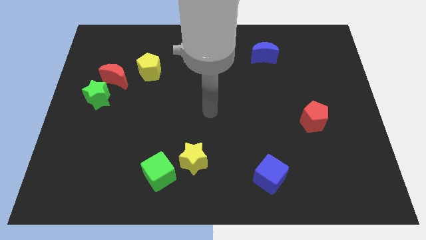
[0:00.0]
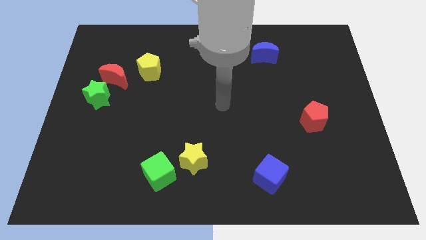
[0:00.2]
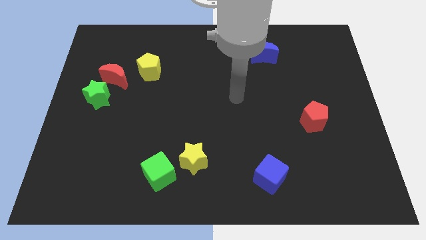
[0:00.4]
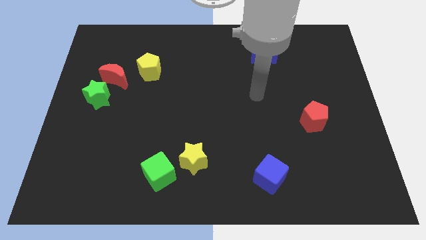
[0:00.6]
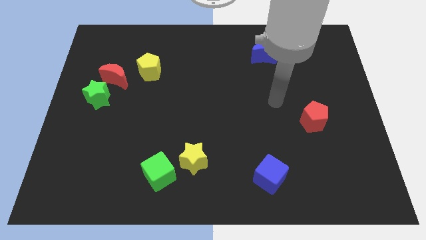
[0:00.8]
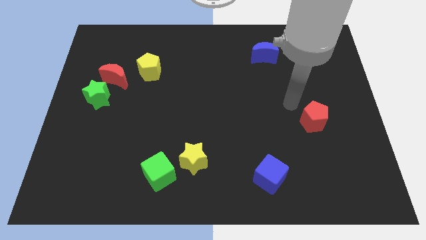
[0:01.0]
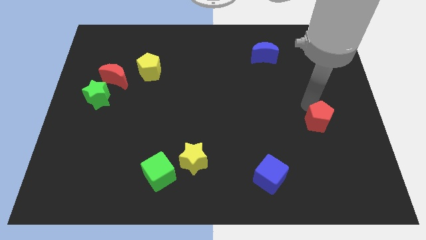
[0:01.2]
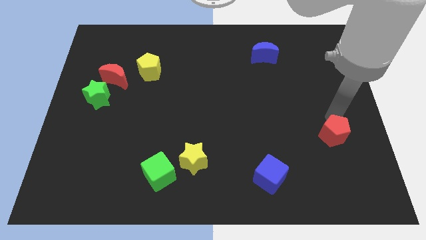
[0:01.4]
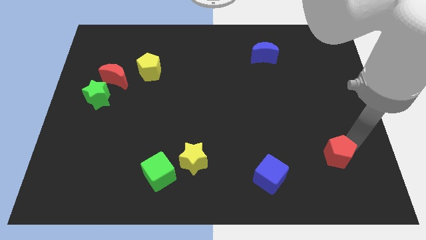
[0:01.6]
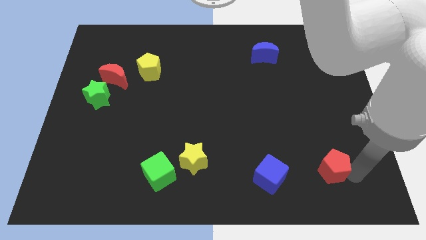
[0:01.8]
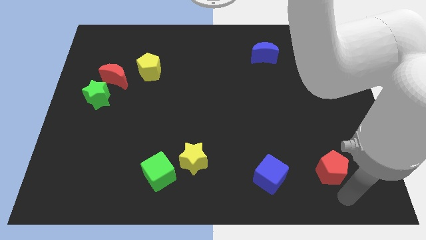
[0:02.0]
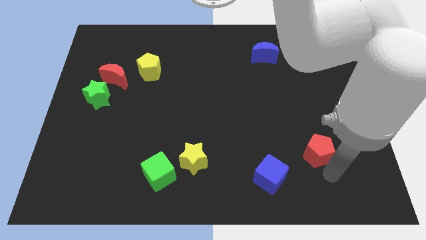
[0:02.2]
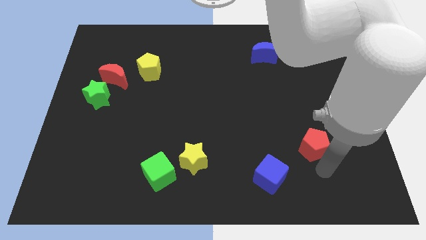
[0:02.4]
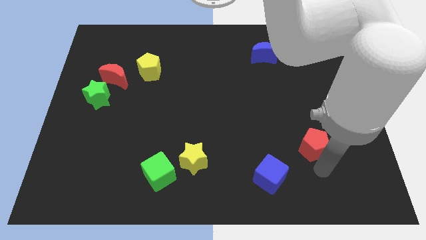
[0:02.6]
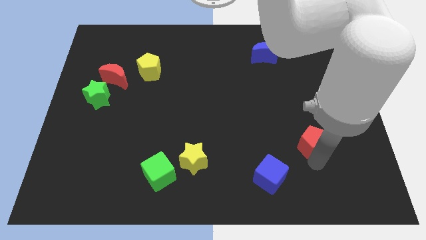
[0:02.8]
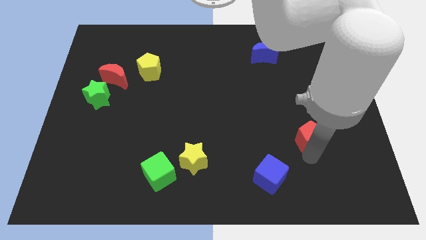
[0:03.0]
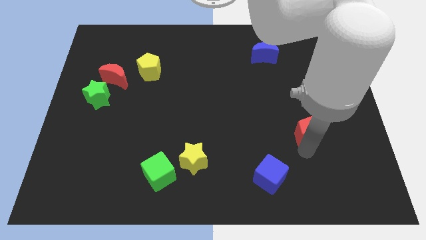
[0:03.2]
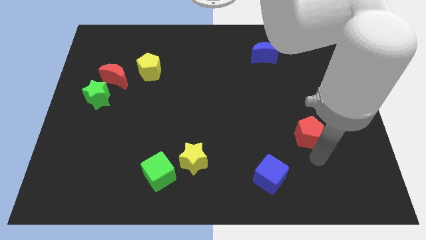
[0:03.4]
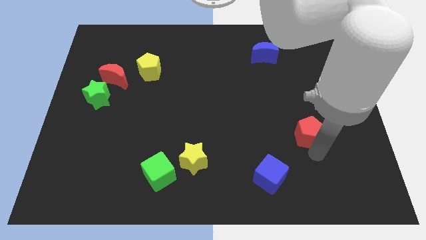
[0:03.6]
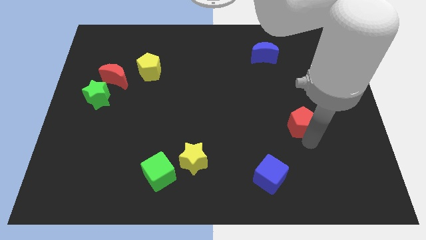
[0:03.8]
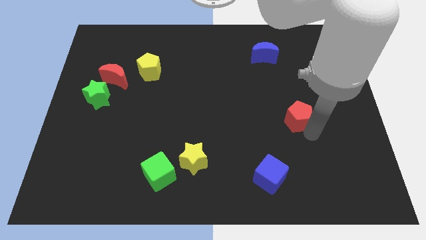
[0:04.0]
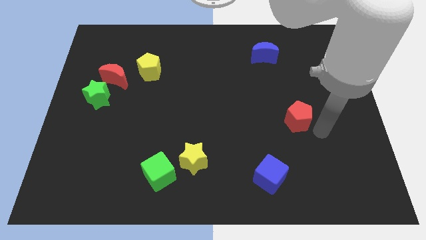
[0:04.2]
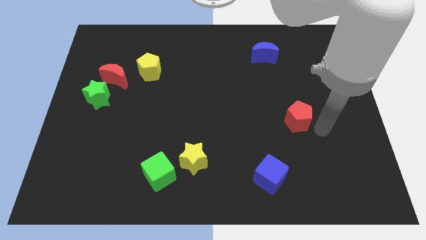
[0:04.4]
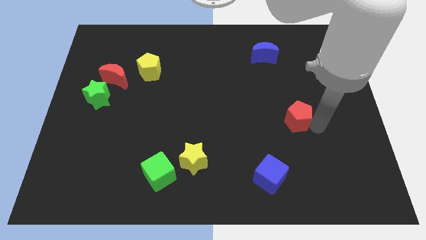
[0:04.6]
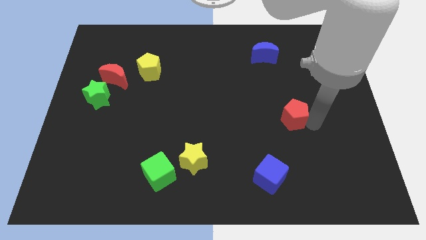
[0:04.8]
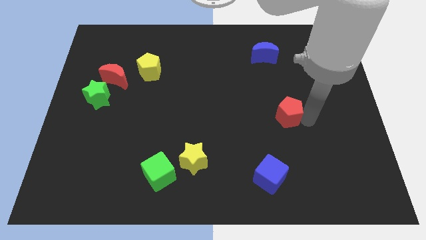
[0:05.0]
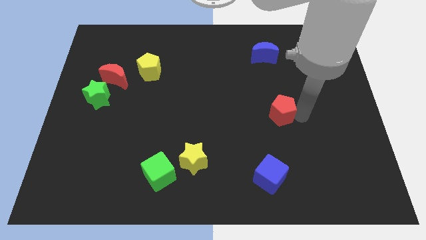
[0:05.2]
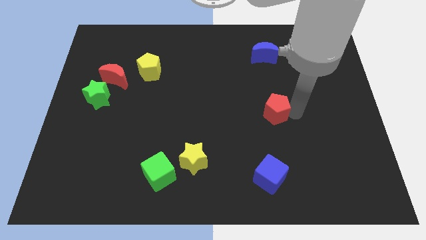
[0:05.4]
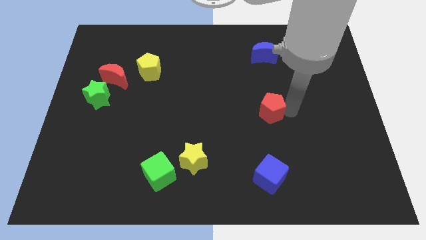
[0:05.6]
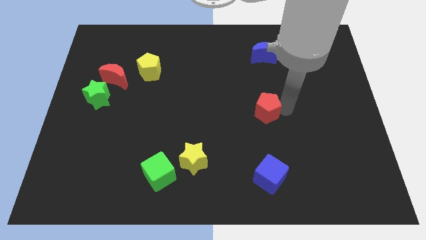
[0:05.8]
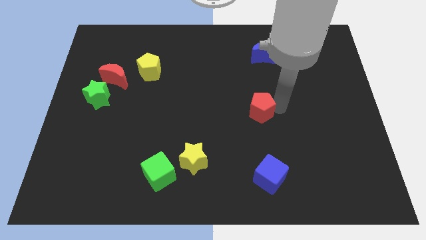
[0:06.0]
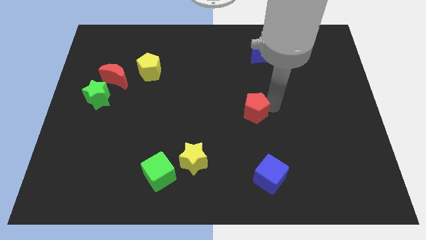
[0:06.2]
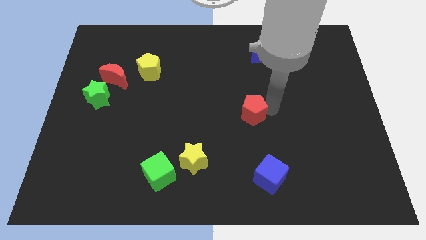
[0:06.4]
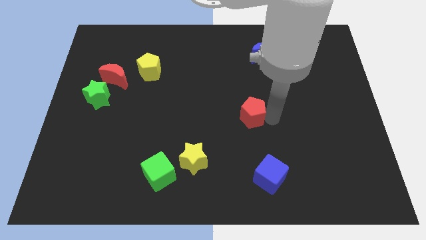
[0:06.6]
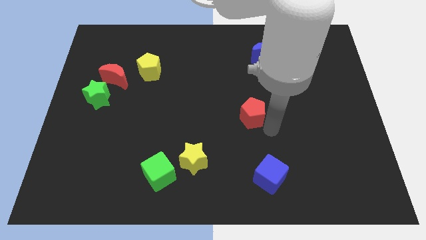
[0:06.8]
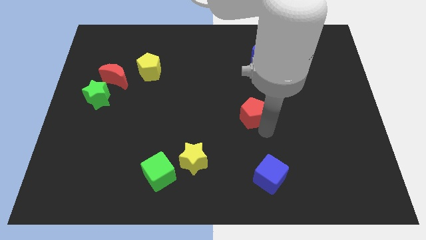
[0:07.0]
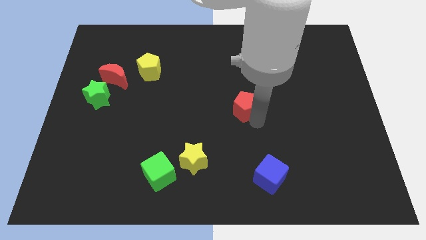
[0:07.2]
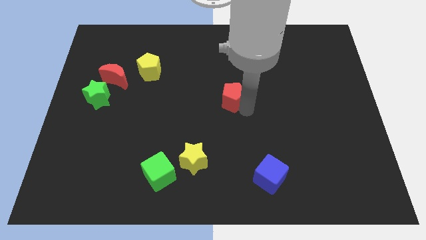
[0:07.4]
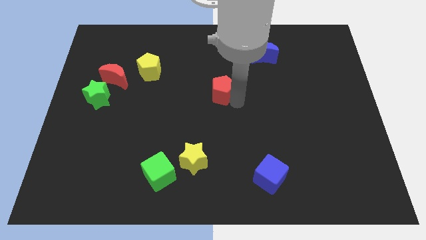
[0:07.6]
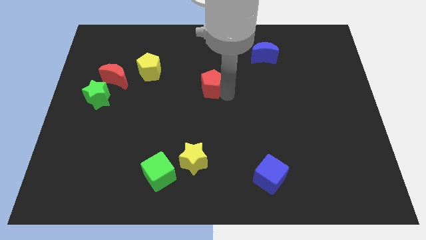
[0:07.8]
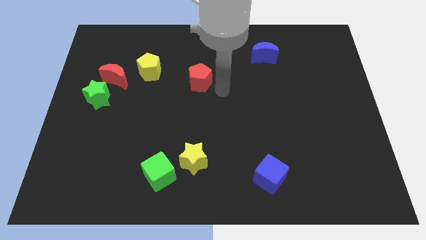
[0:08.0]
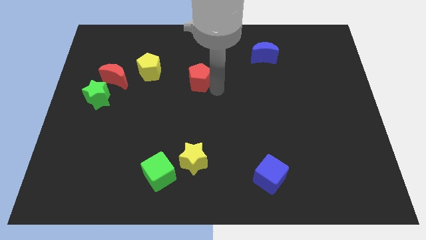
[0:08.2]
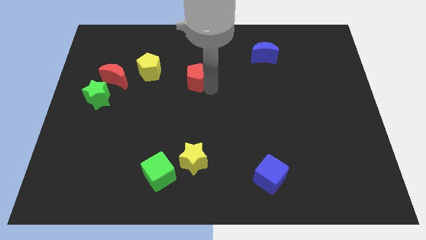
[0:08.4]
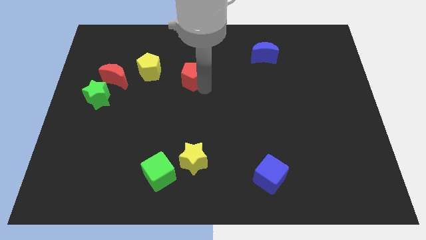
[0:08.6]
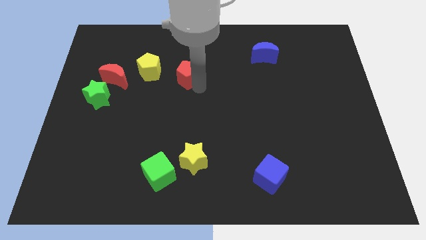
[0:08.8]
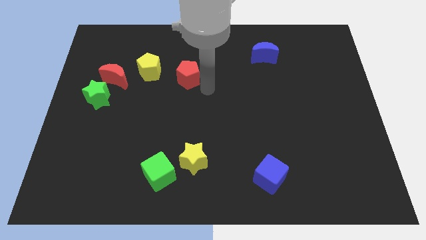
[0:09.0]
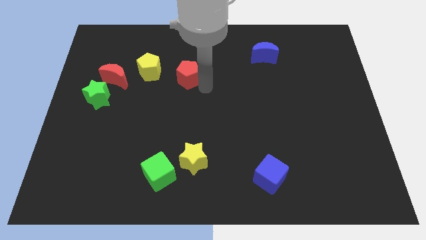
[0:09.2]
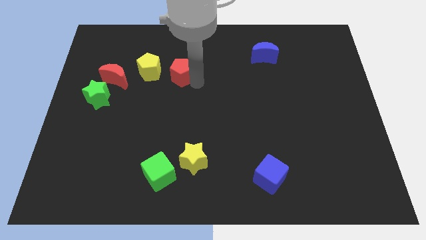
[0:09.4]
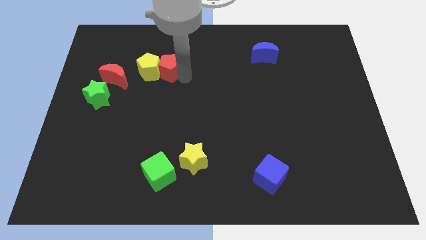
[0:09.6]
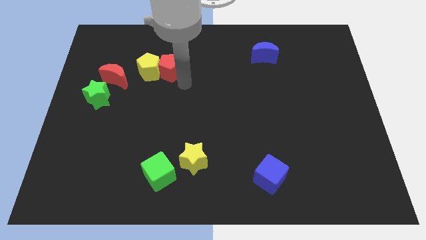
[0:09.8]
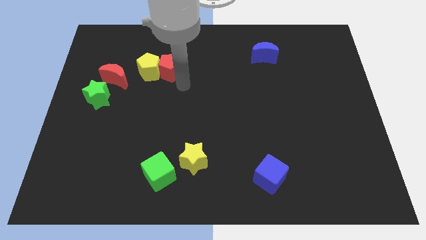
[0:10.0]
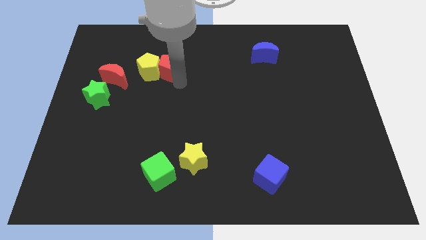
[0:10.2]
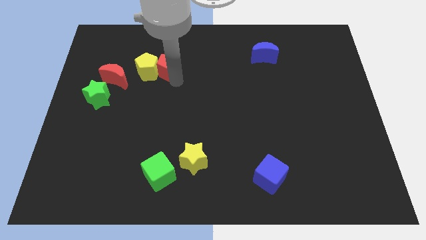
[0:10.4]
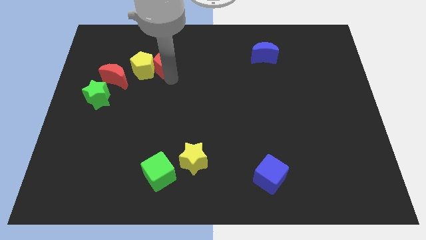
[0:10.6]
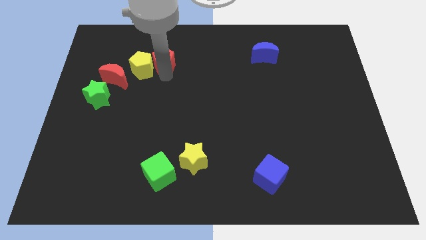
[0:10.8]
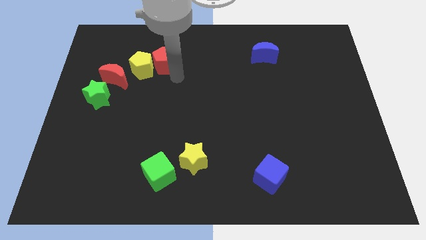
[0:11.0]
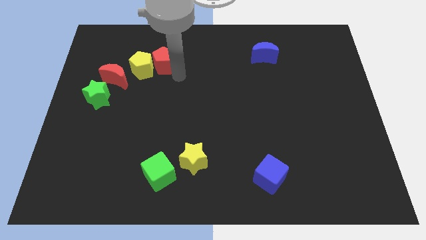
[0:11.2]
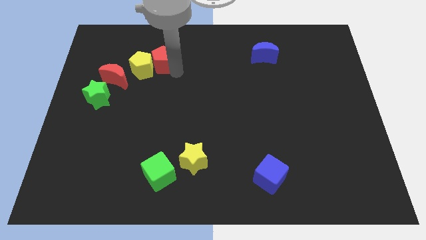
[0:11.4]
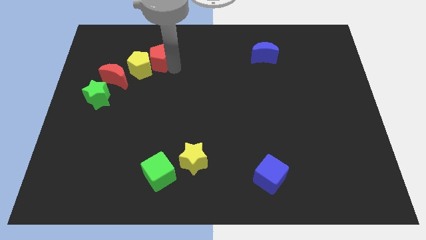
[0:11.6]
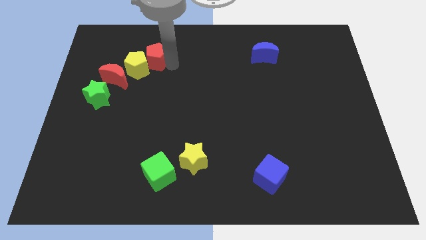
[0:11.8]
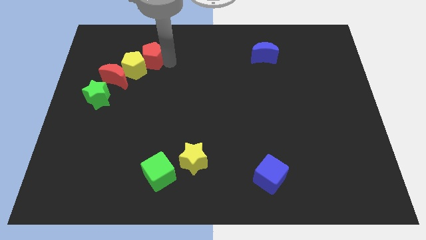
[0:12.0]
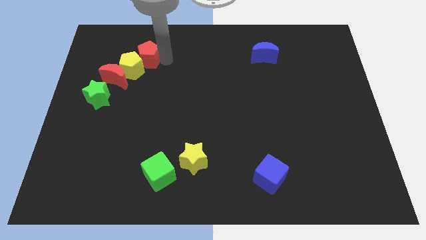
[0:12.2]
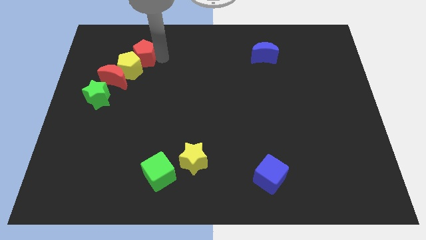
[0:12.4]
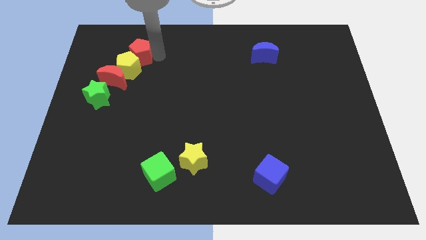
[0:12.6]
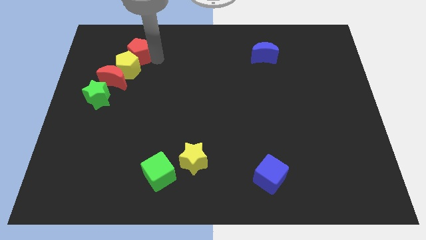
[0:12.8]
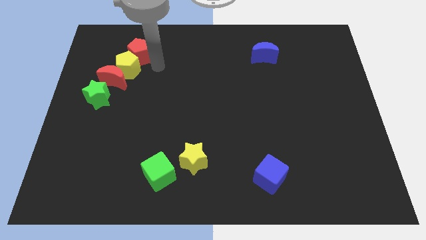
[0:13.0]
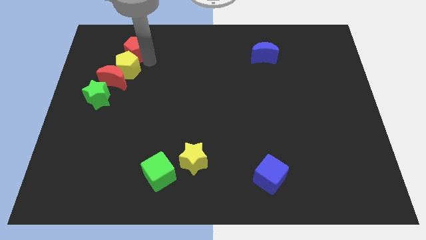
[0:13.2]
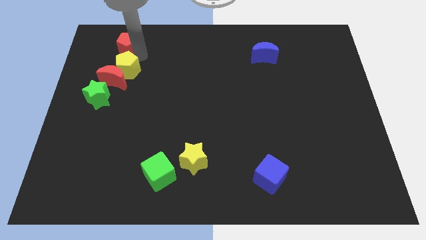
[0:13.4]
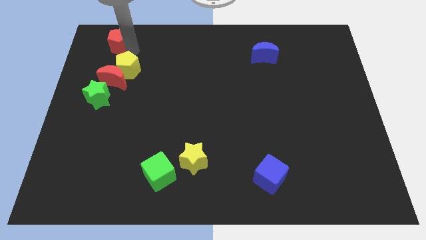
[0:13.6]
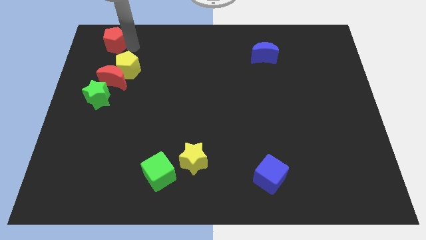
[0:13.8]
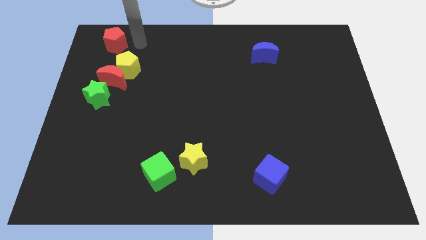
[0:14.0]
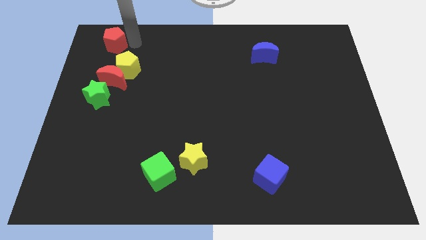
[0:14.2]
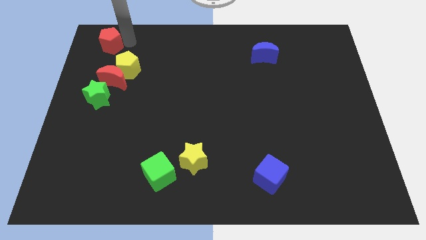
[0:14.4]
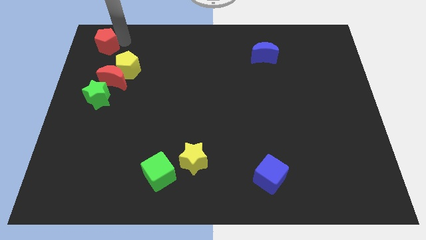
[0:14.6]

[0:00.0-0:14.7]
push the red pentagon to the top left of the board
